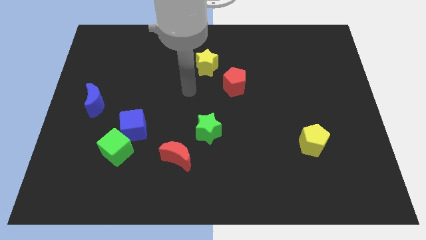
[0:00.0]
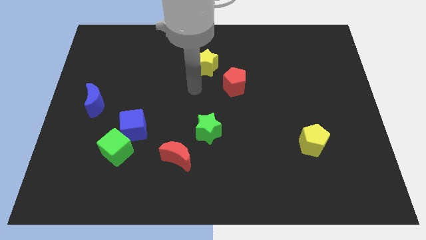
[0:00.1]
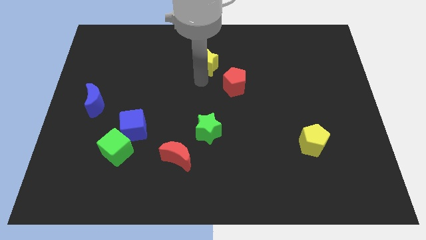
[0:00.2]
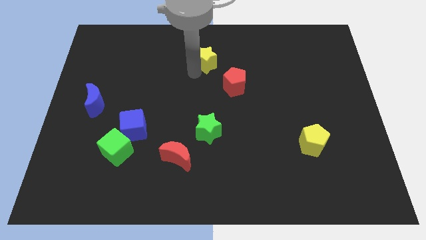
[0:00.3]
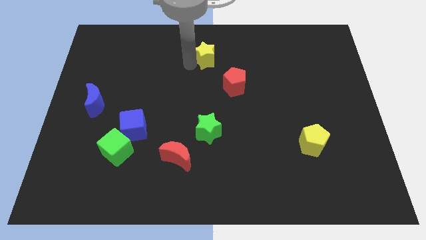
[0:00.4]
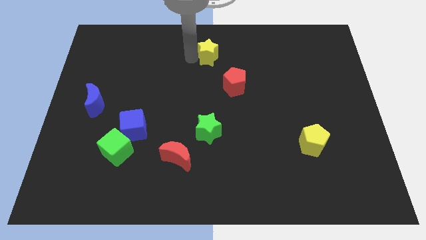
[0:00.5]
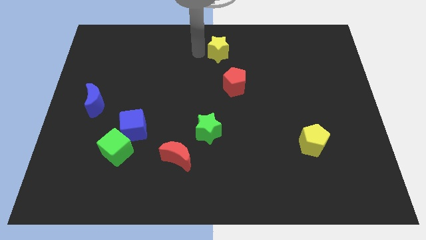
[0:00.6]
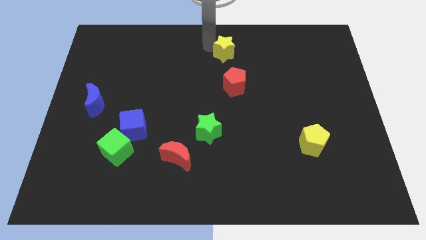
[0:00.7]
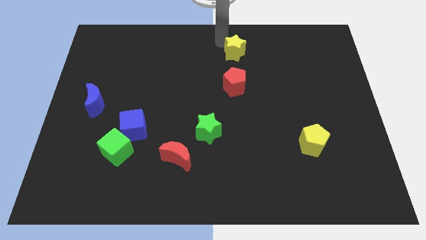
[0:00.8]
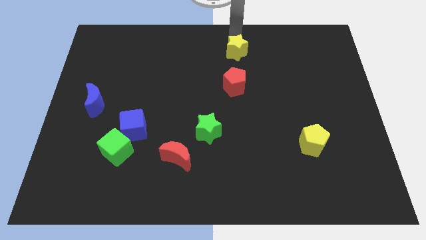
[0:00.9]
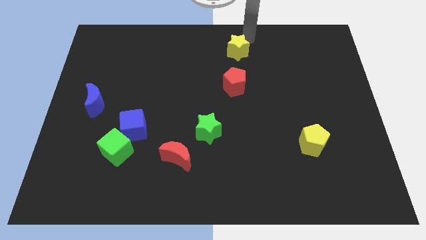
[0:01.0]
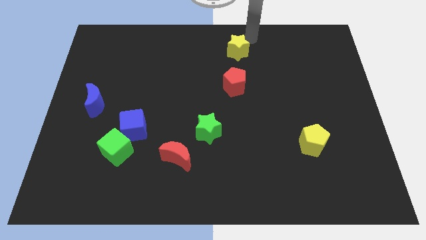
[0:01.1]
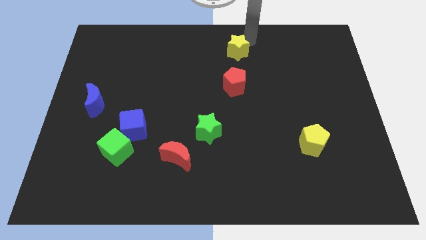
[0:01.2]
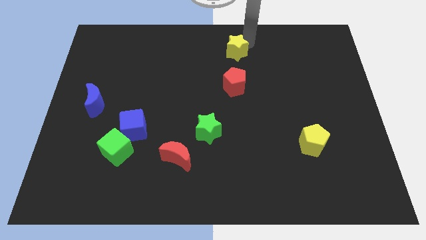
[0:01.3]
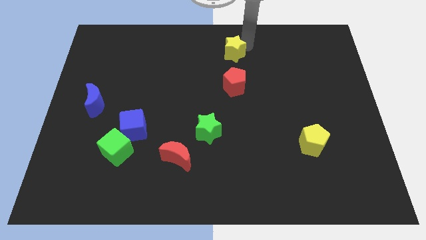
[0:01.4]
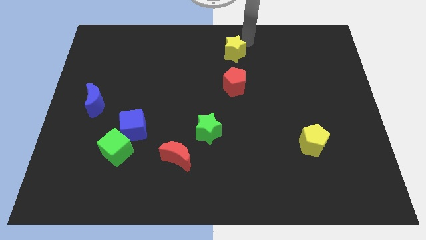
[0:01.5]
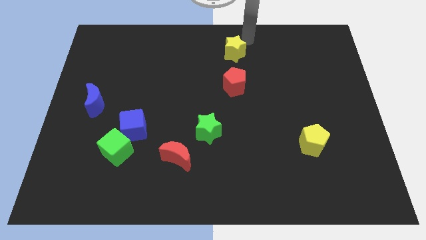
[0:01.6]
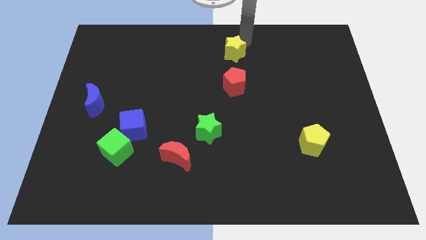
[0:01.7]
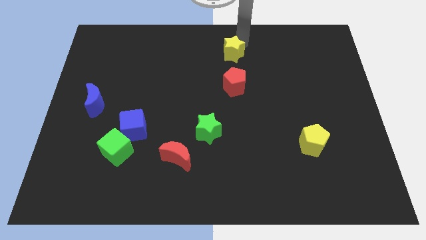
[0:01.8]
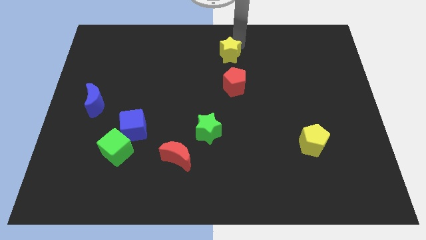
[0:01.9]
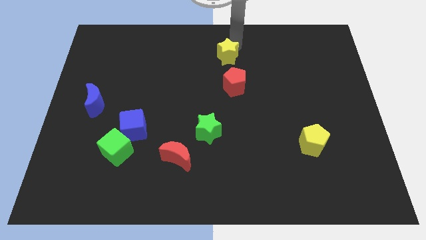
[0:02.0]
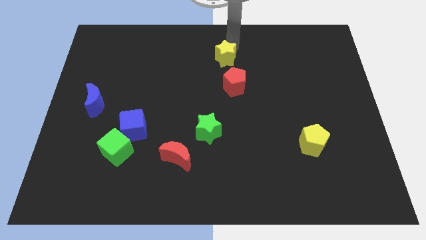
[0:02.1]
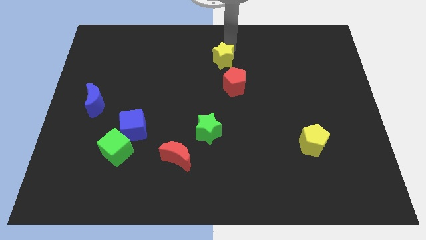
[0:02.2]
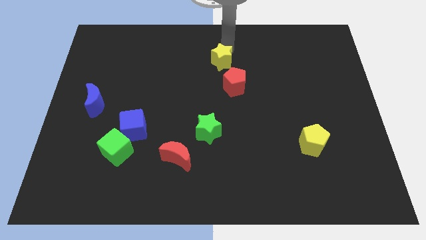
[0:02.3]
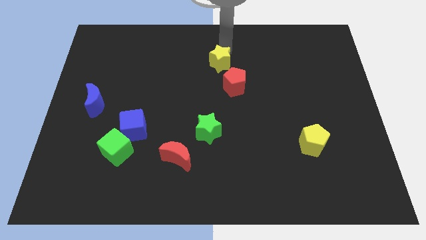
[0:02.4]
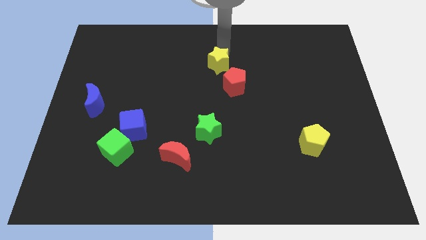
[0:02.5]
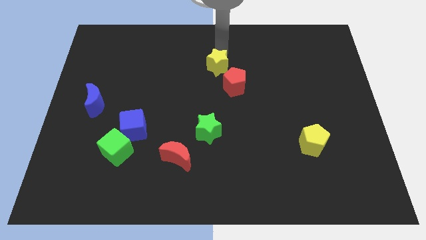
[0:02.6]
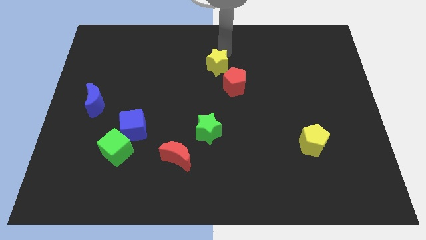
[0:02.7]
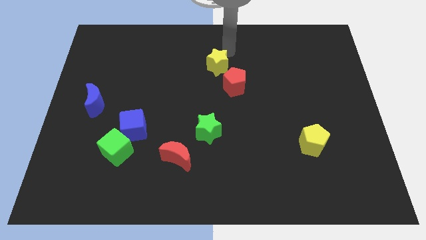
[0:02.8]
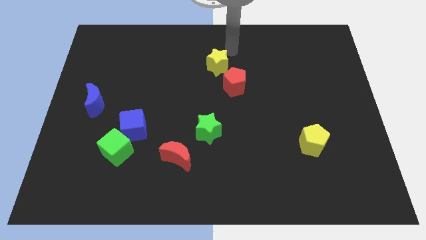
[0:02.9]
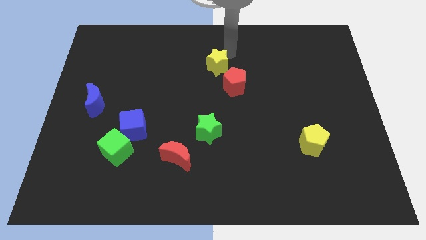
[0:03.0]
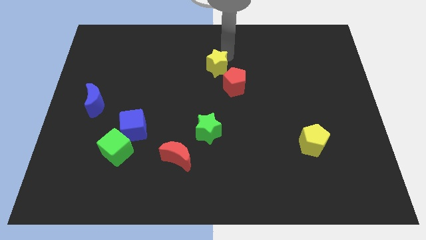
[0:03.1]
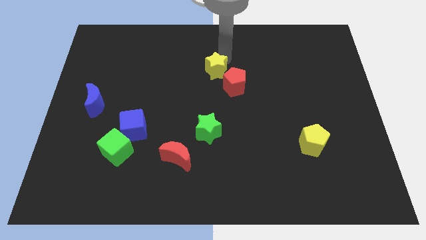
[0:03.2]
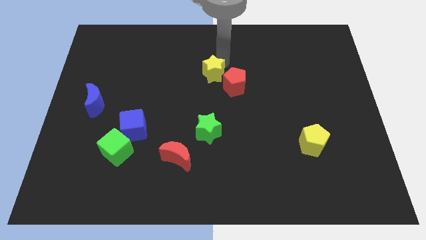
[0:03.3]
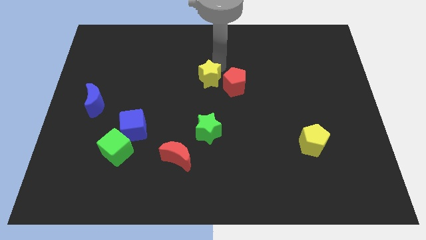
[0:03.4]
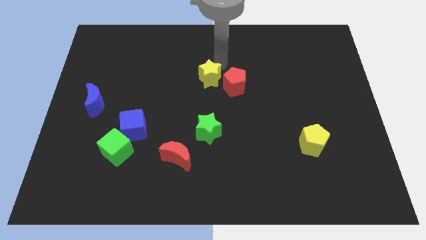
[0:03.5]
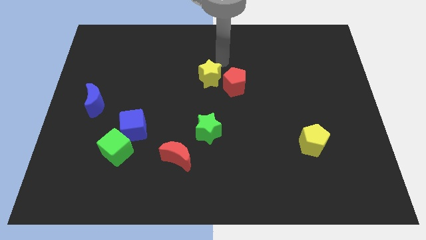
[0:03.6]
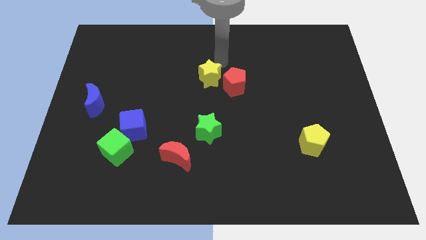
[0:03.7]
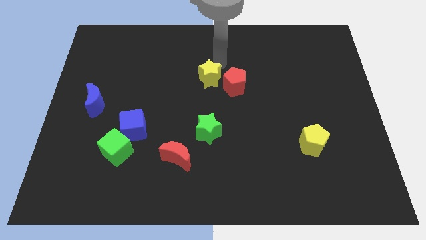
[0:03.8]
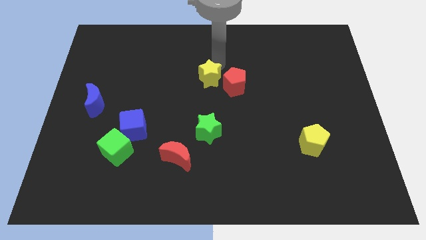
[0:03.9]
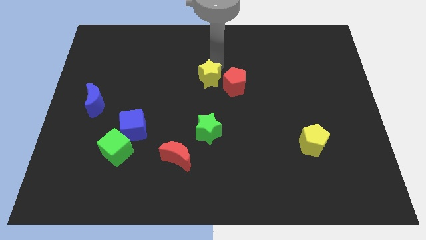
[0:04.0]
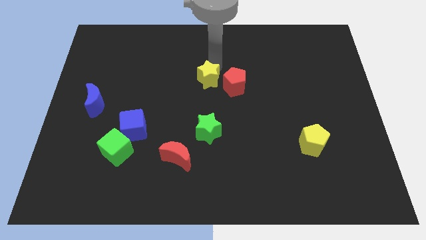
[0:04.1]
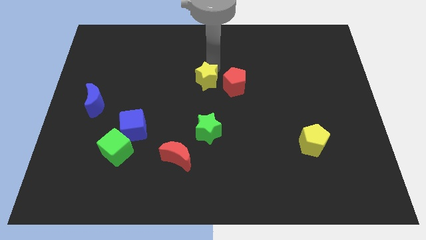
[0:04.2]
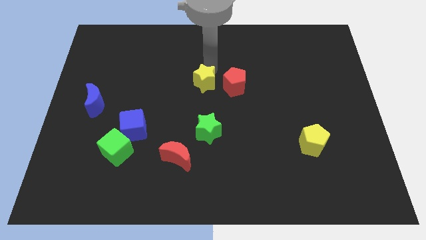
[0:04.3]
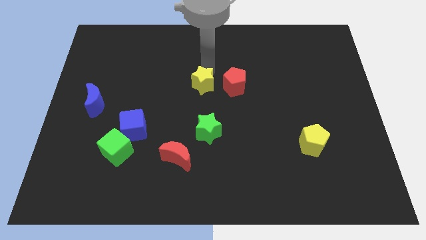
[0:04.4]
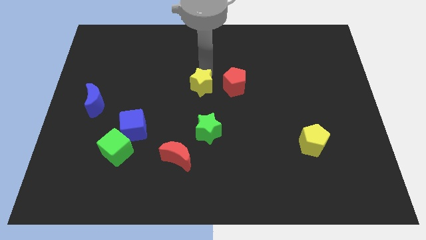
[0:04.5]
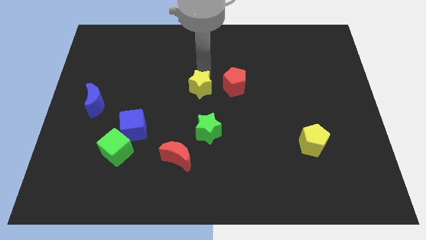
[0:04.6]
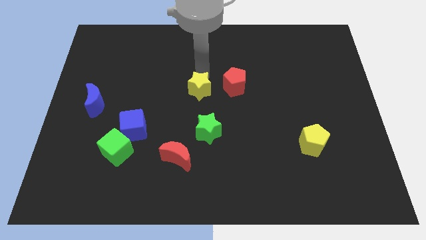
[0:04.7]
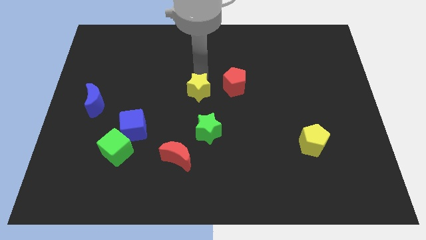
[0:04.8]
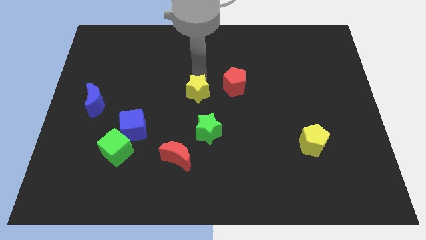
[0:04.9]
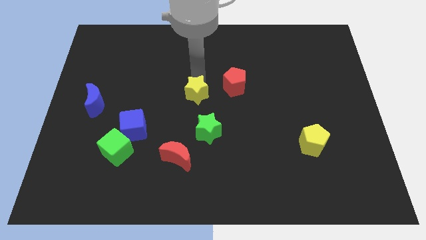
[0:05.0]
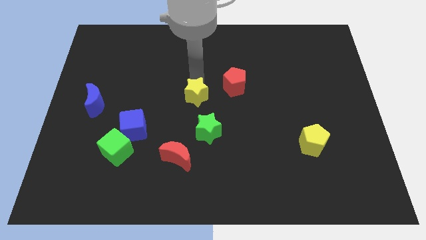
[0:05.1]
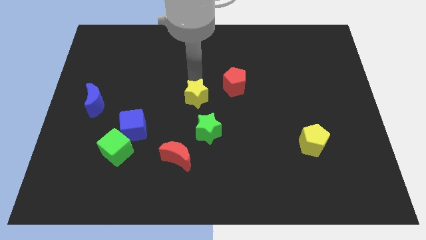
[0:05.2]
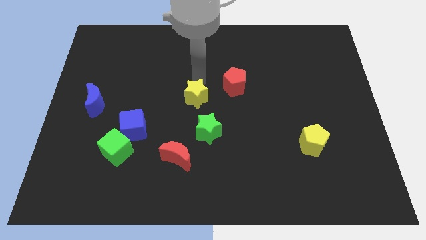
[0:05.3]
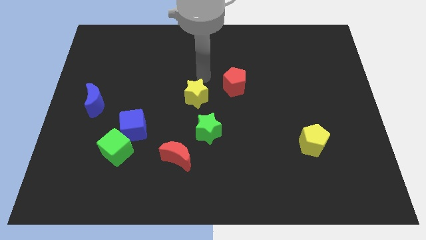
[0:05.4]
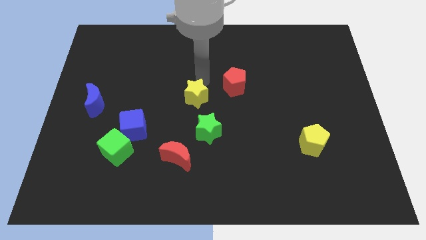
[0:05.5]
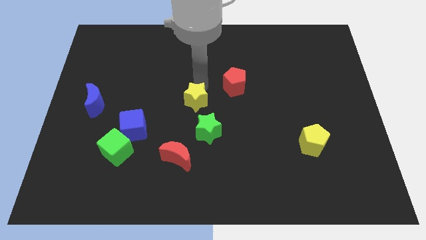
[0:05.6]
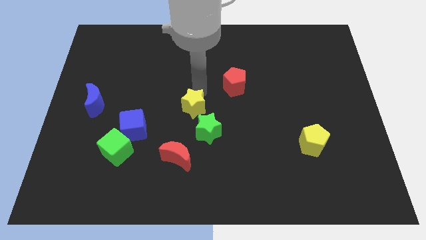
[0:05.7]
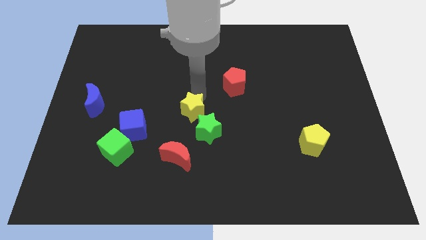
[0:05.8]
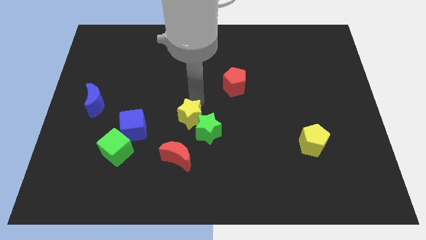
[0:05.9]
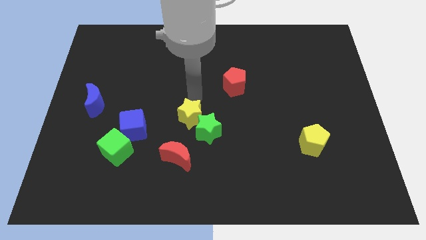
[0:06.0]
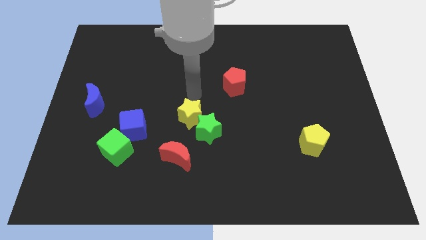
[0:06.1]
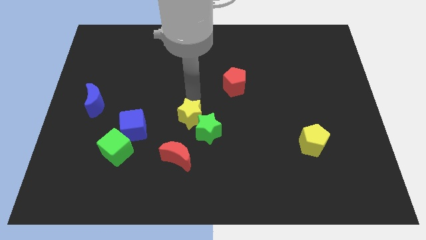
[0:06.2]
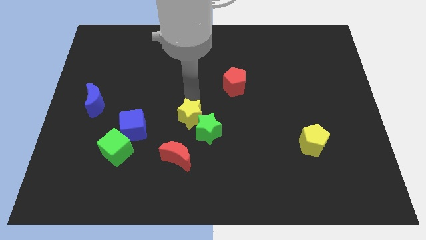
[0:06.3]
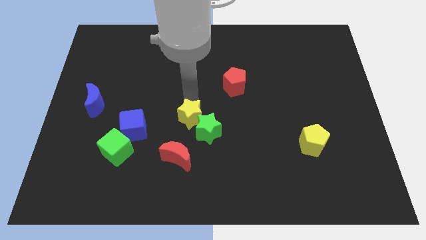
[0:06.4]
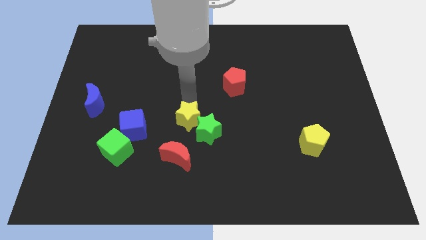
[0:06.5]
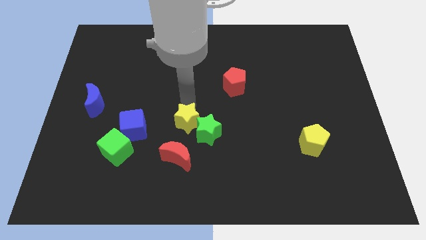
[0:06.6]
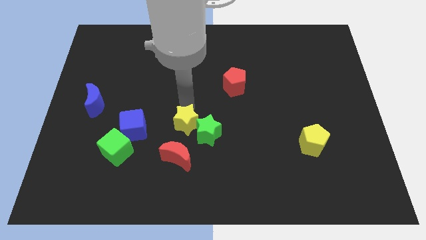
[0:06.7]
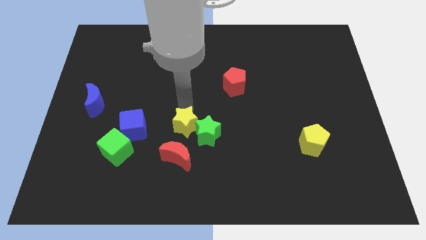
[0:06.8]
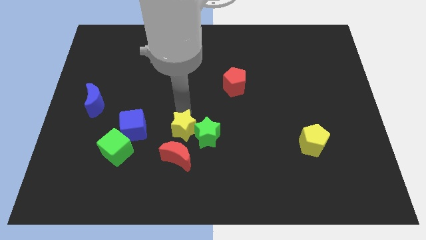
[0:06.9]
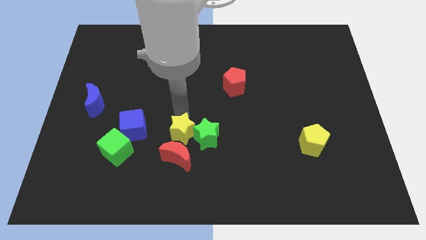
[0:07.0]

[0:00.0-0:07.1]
move the yellow star down

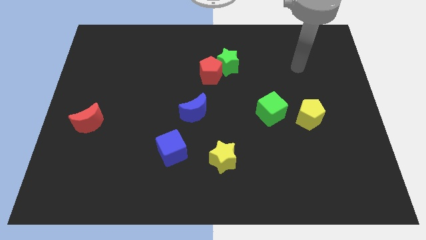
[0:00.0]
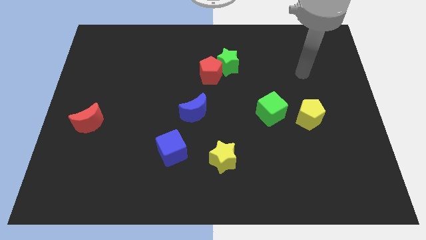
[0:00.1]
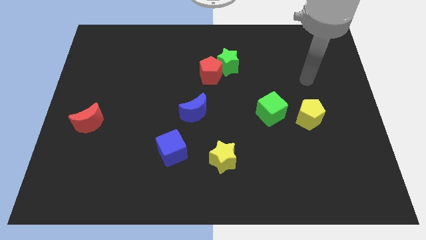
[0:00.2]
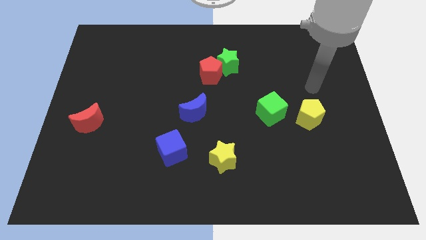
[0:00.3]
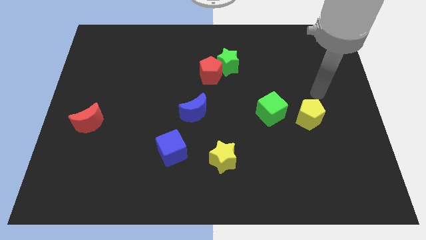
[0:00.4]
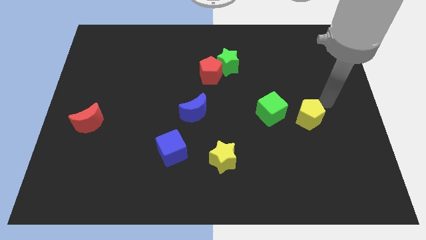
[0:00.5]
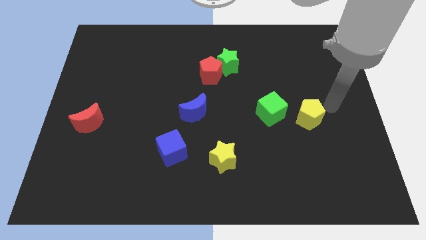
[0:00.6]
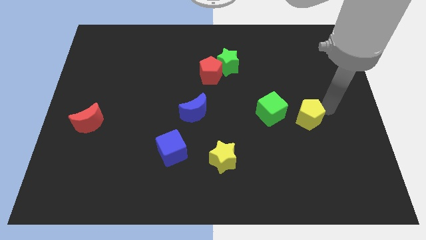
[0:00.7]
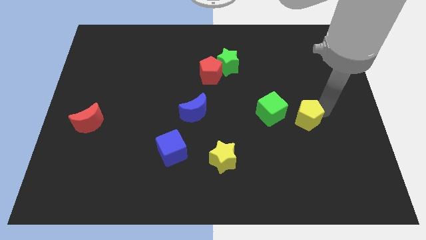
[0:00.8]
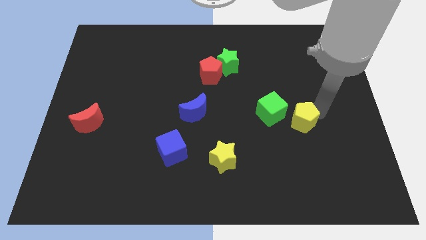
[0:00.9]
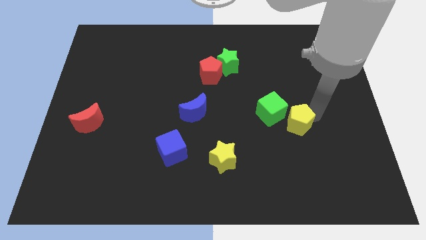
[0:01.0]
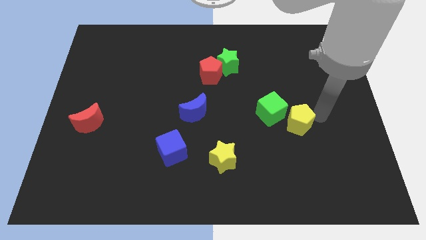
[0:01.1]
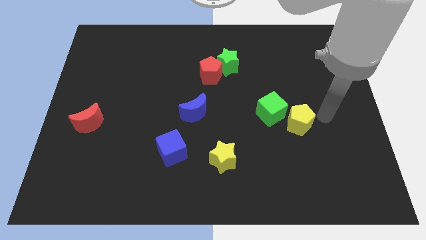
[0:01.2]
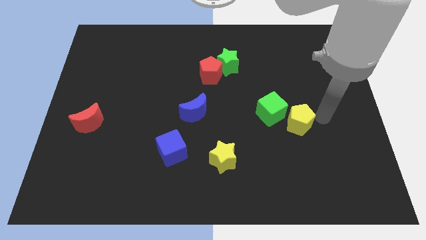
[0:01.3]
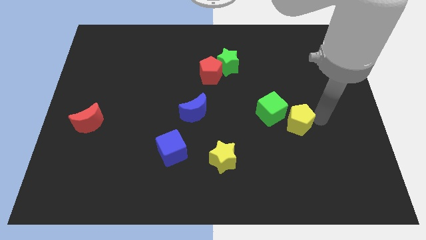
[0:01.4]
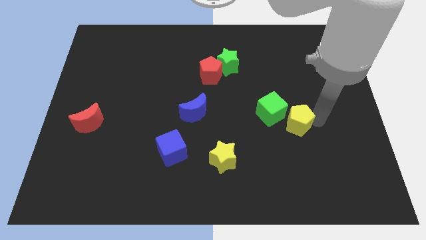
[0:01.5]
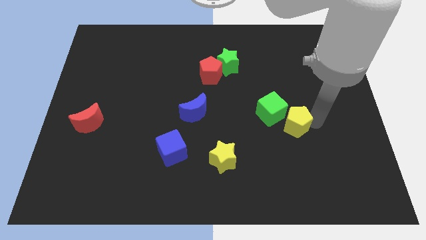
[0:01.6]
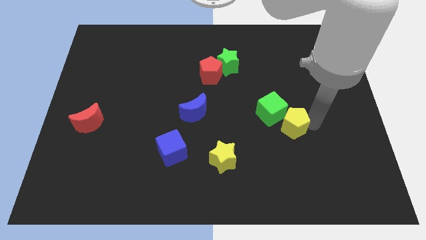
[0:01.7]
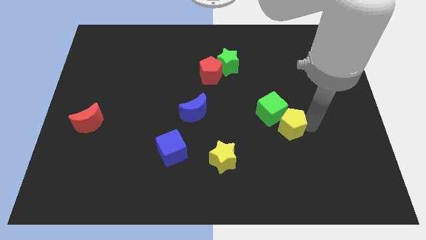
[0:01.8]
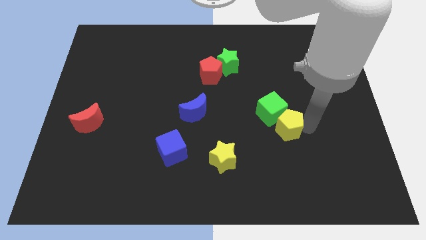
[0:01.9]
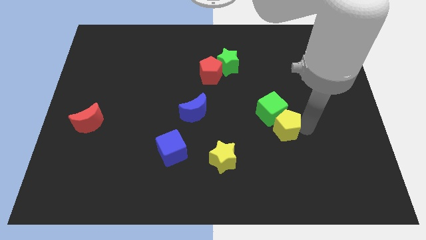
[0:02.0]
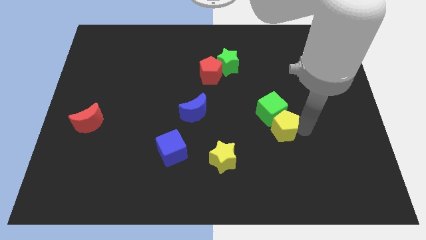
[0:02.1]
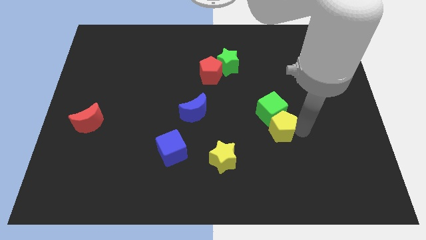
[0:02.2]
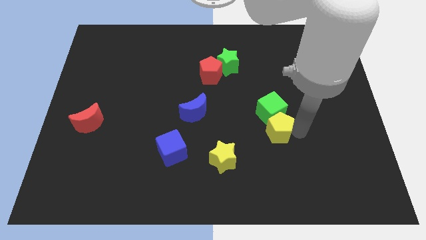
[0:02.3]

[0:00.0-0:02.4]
move the yellow pentagon a little left
